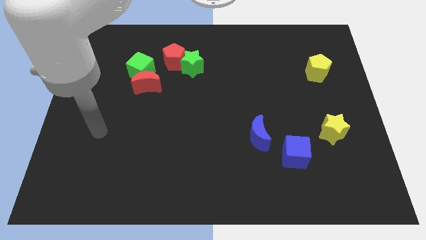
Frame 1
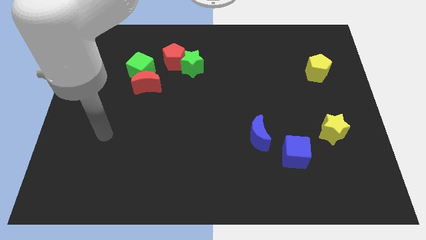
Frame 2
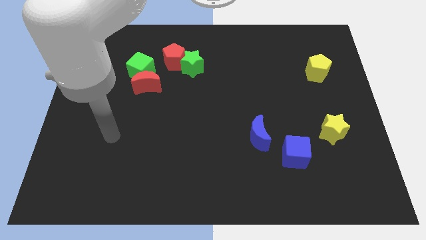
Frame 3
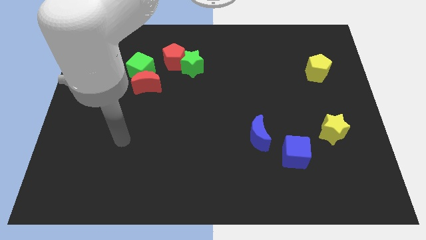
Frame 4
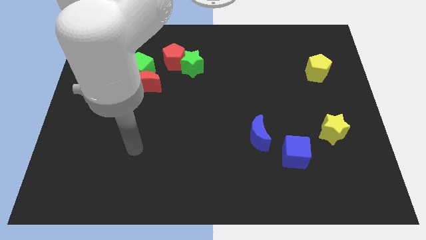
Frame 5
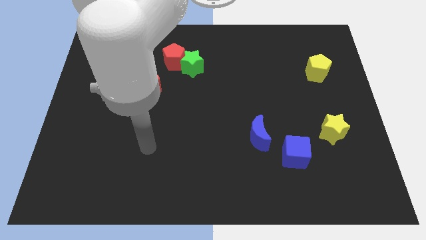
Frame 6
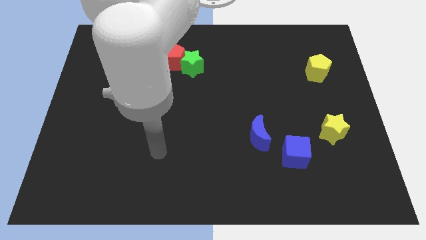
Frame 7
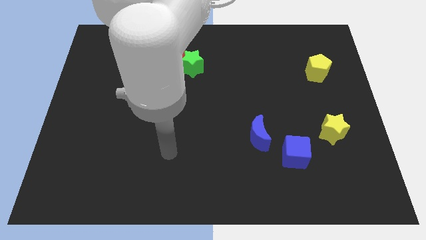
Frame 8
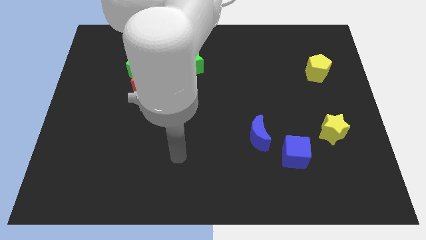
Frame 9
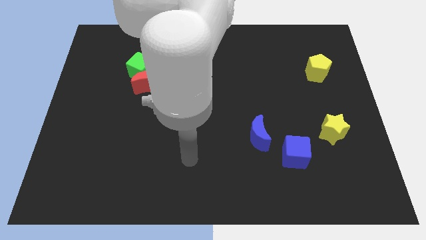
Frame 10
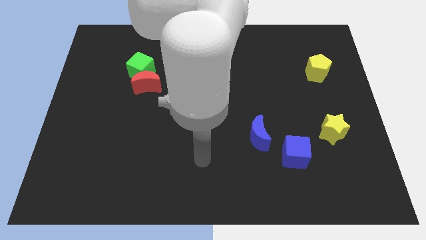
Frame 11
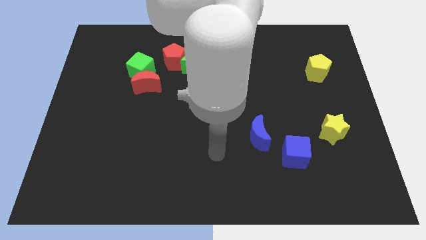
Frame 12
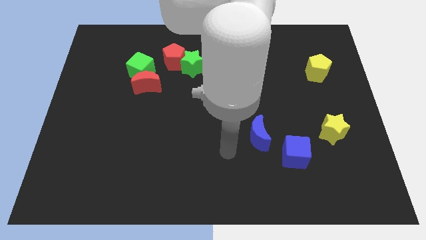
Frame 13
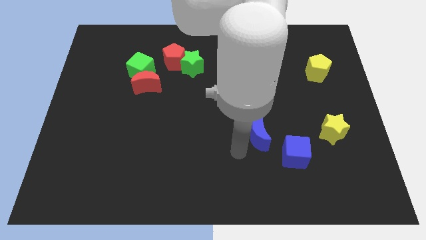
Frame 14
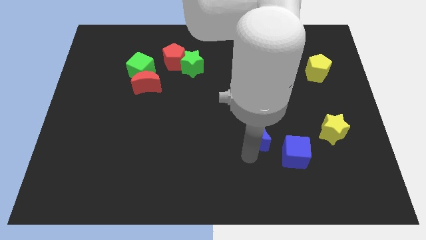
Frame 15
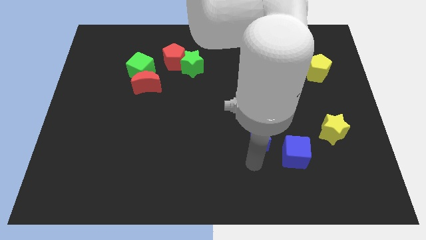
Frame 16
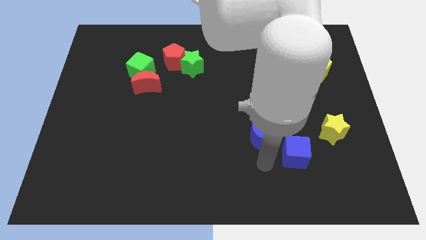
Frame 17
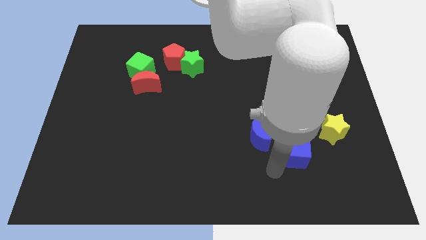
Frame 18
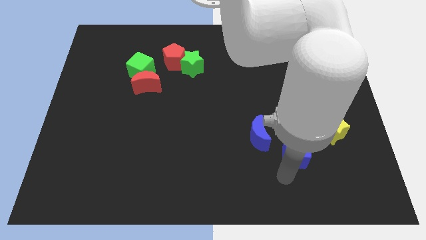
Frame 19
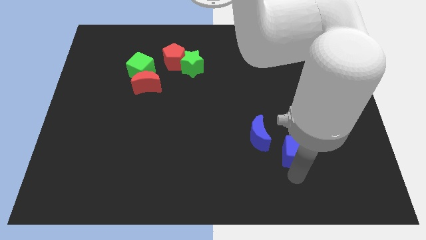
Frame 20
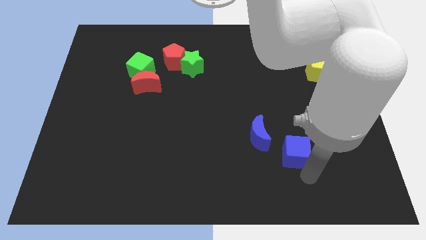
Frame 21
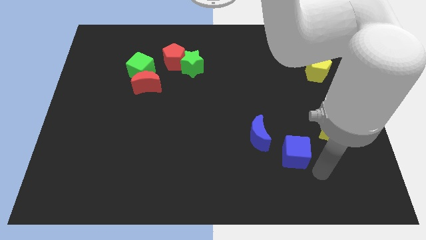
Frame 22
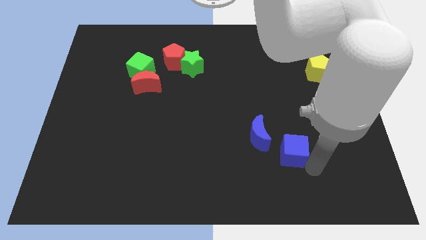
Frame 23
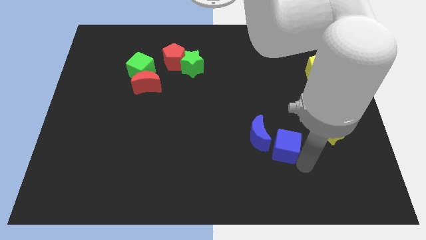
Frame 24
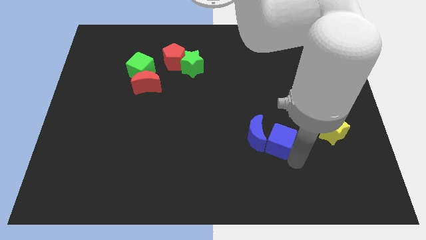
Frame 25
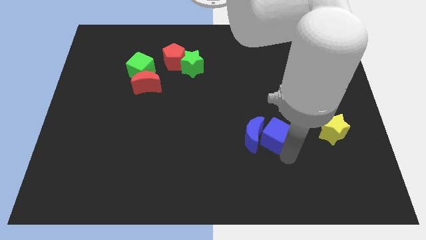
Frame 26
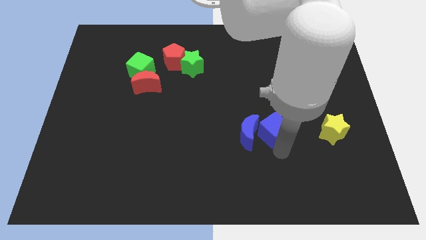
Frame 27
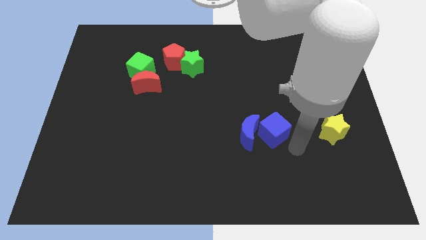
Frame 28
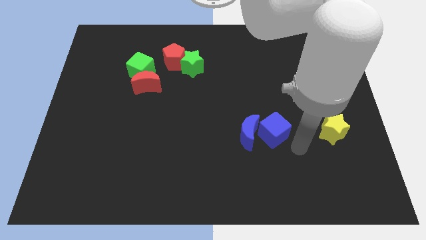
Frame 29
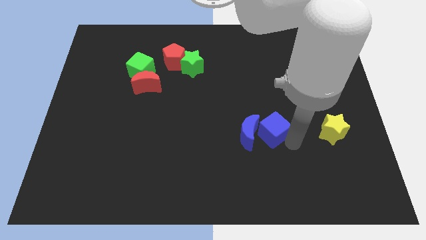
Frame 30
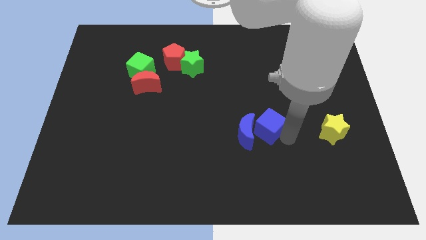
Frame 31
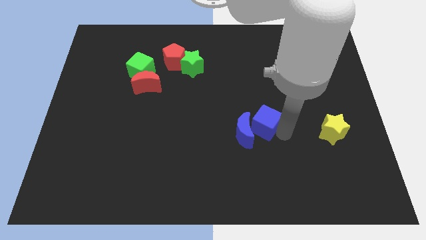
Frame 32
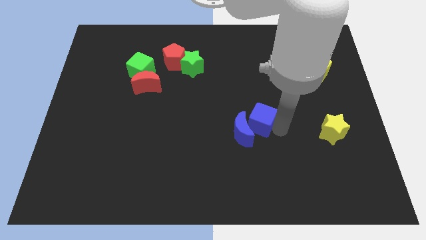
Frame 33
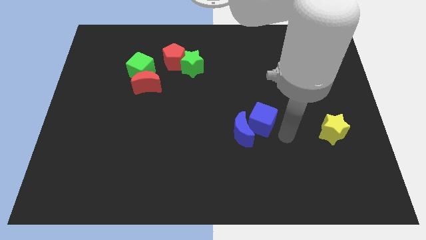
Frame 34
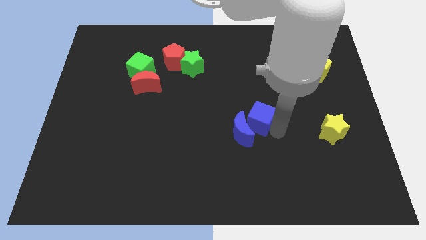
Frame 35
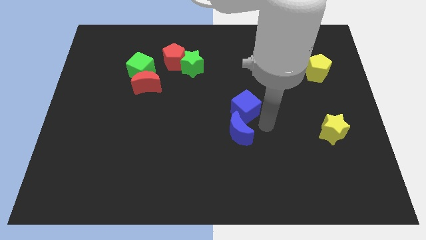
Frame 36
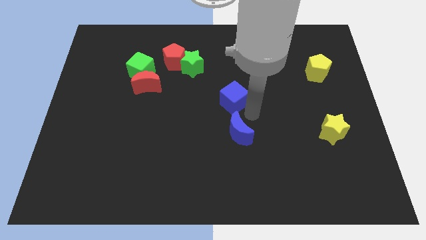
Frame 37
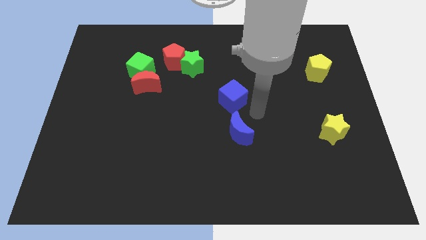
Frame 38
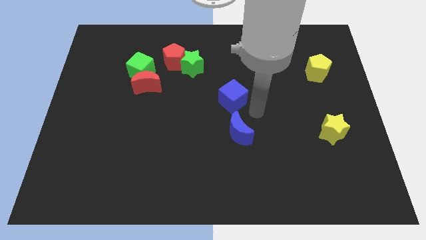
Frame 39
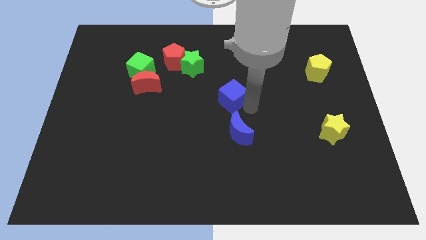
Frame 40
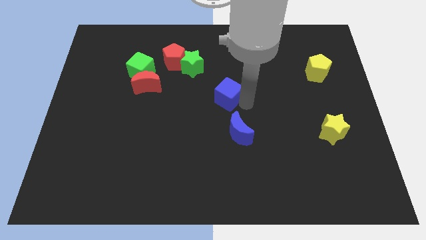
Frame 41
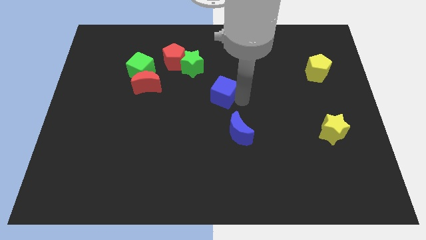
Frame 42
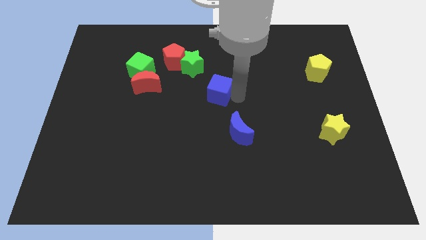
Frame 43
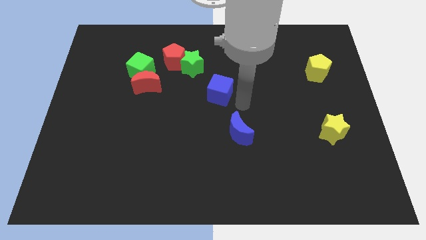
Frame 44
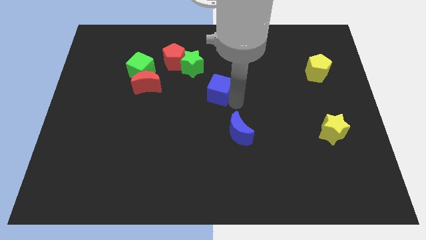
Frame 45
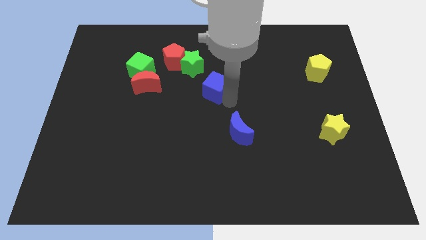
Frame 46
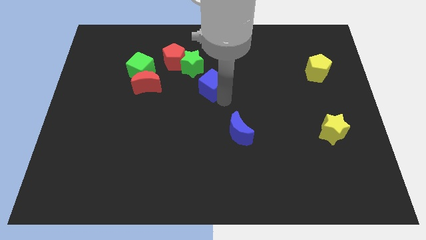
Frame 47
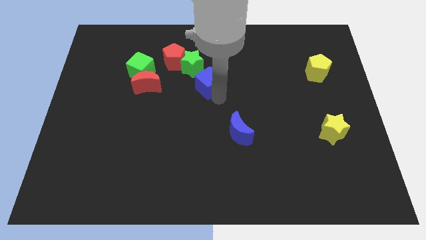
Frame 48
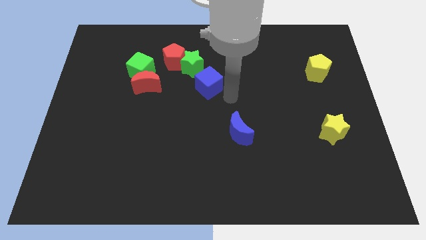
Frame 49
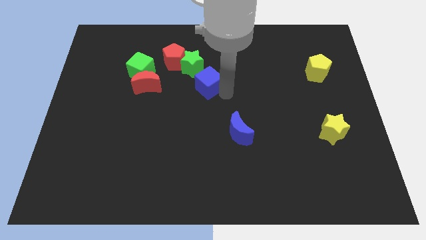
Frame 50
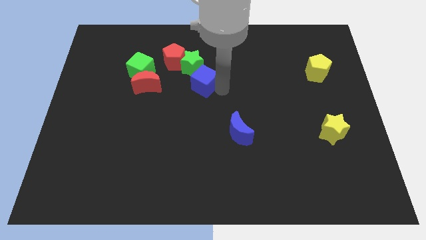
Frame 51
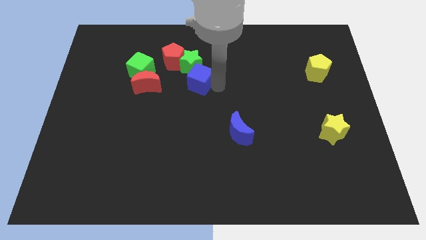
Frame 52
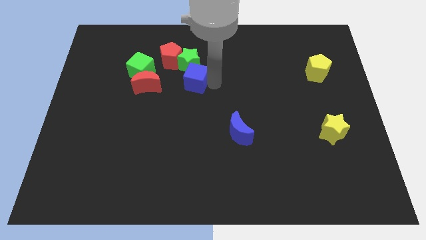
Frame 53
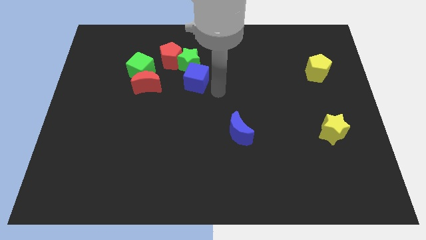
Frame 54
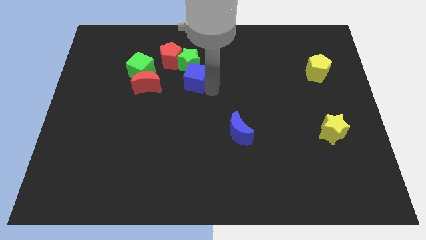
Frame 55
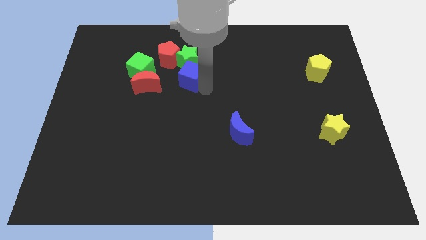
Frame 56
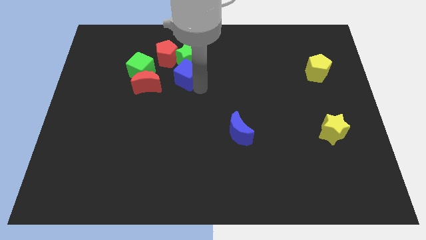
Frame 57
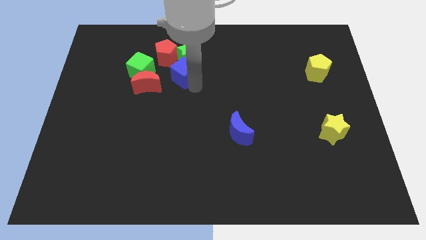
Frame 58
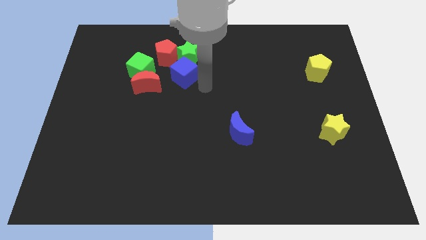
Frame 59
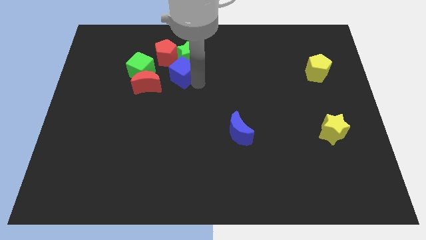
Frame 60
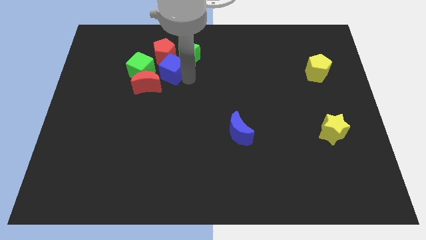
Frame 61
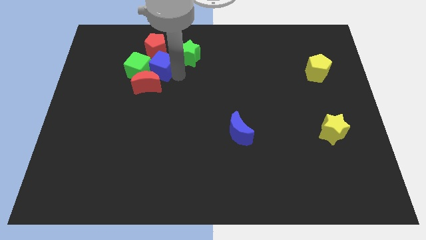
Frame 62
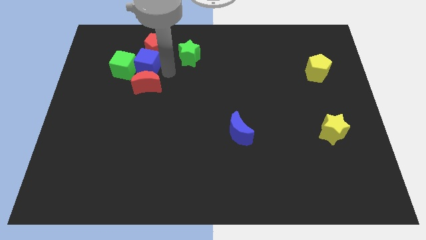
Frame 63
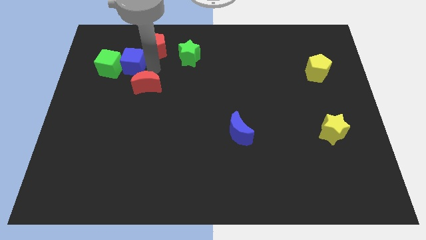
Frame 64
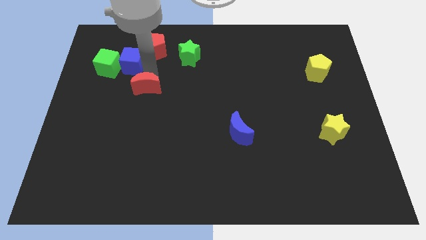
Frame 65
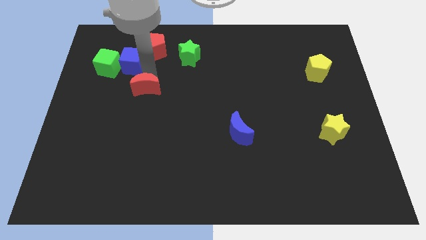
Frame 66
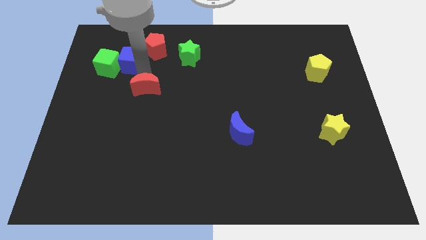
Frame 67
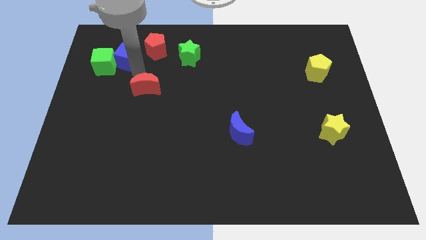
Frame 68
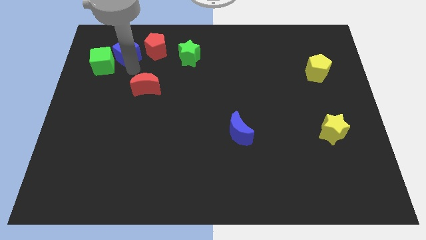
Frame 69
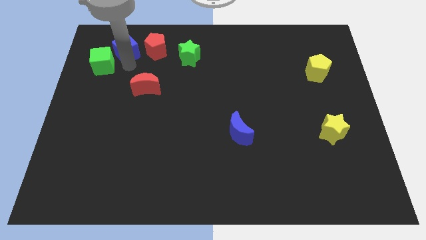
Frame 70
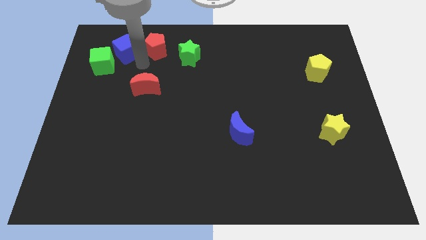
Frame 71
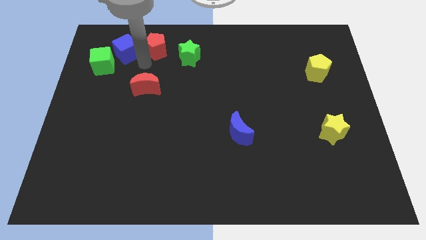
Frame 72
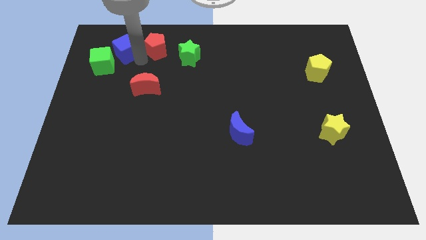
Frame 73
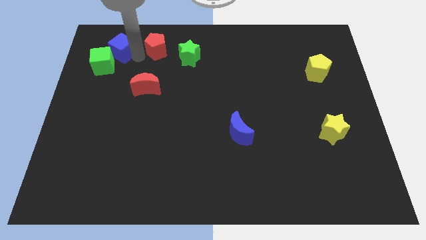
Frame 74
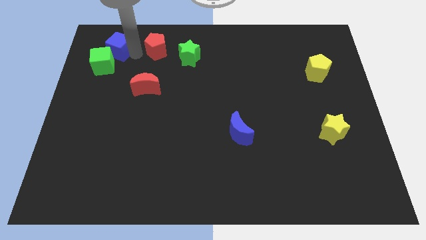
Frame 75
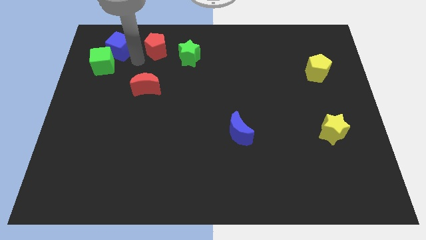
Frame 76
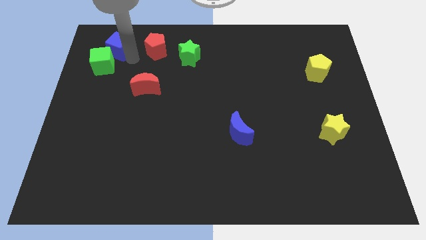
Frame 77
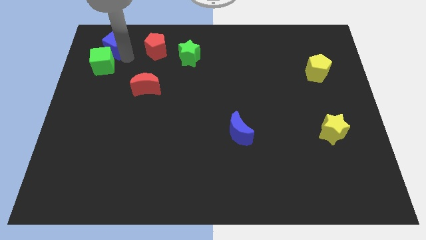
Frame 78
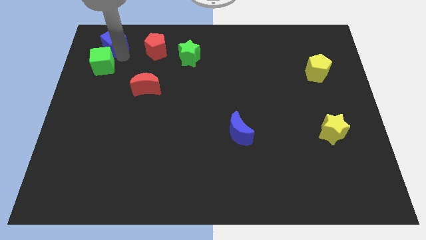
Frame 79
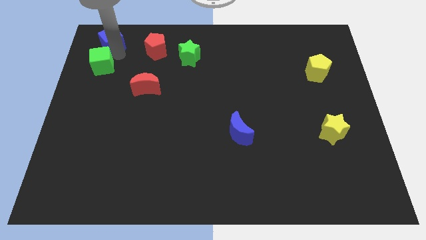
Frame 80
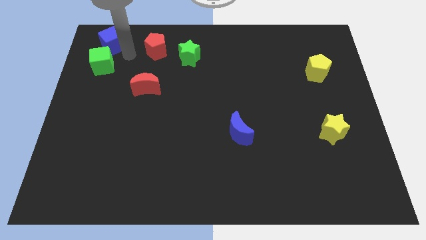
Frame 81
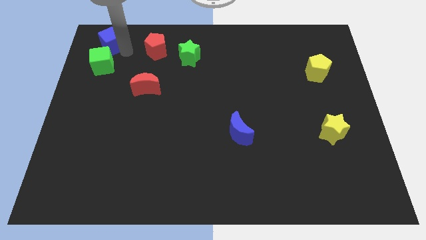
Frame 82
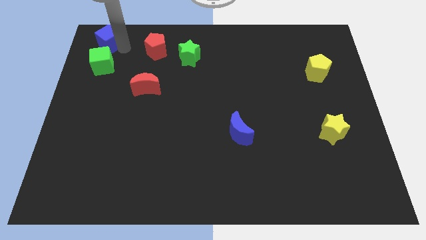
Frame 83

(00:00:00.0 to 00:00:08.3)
put the blue cube to the top left
